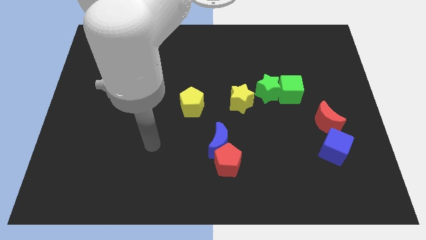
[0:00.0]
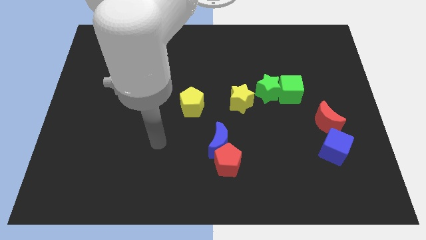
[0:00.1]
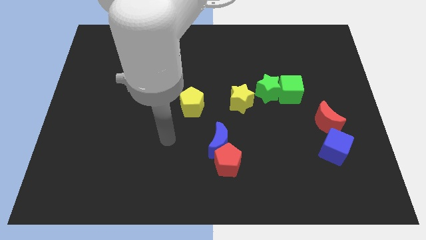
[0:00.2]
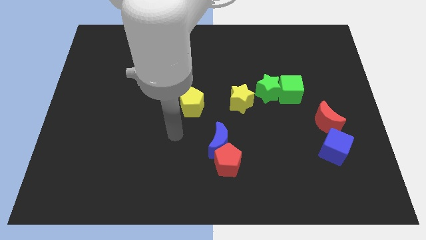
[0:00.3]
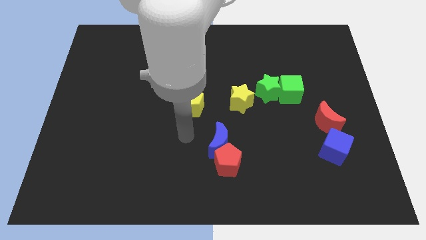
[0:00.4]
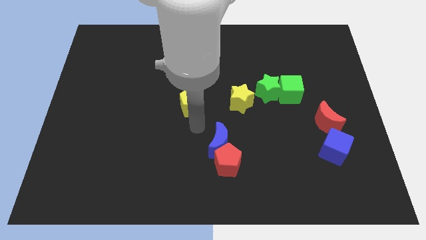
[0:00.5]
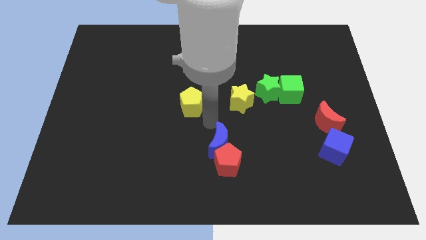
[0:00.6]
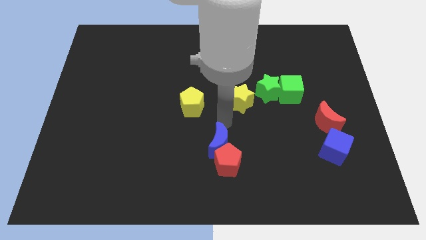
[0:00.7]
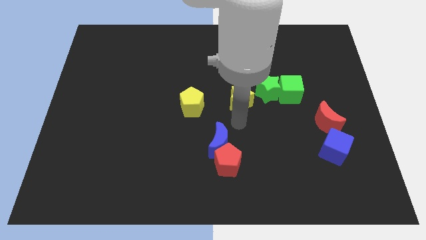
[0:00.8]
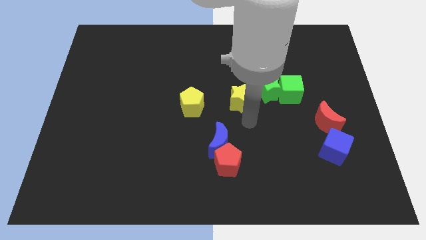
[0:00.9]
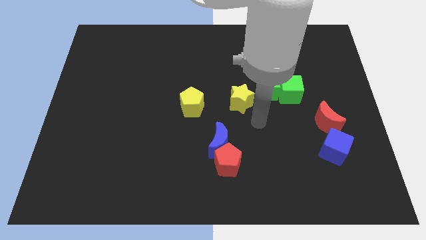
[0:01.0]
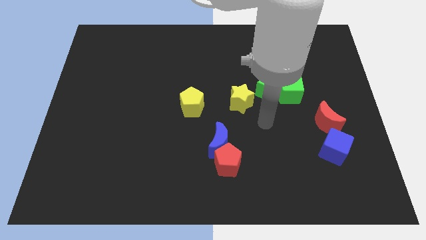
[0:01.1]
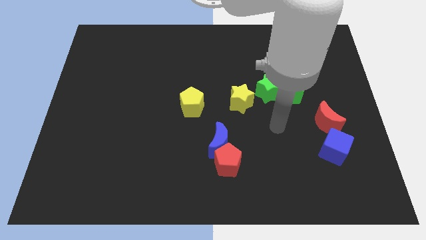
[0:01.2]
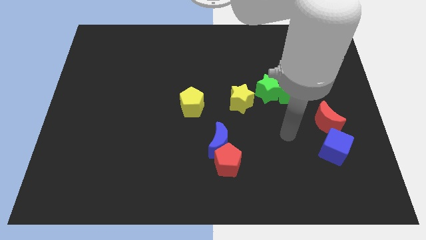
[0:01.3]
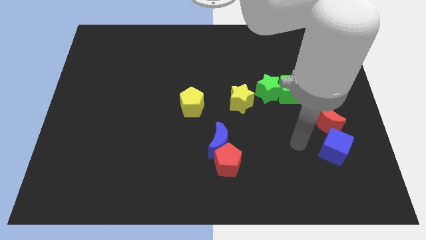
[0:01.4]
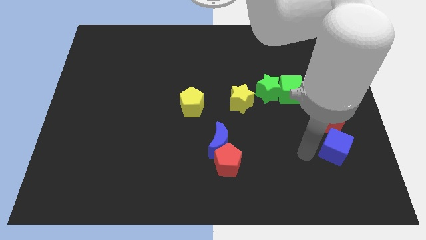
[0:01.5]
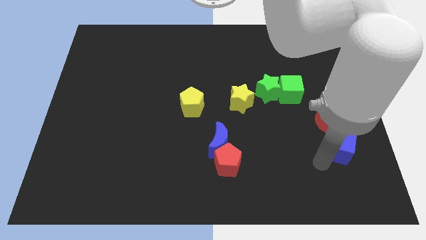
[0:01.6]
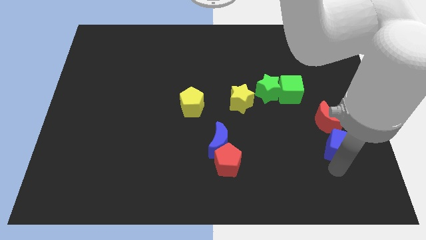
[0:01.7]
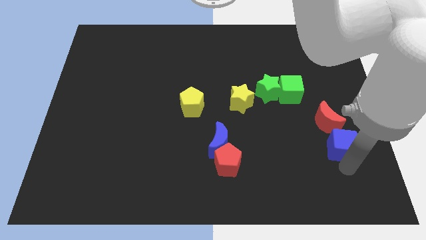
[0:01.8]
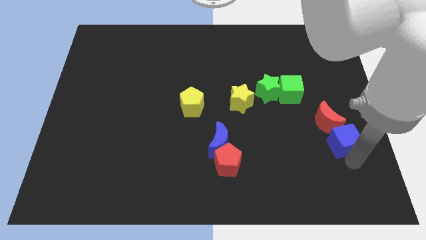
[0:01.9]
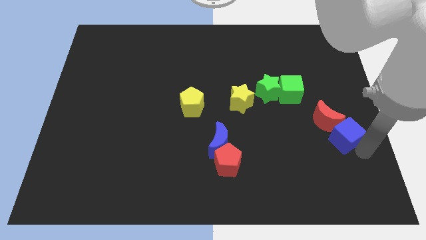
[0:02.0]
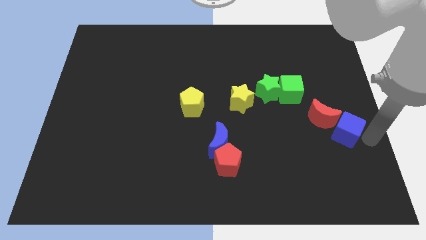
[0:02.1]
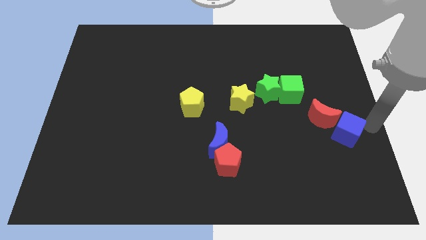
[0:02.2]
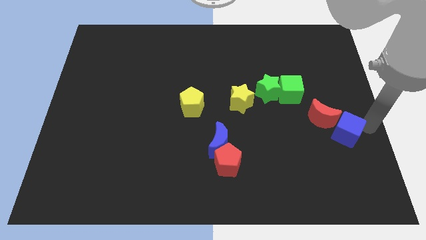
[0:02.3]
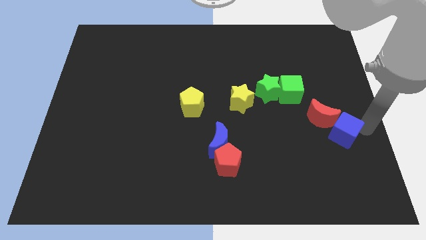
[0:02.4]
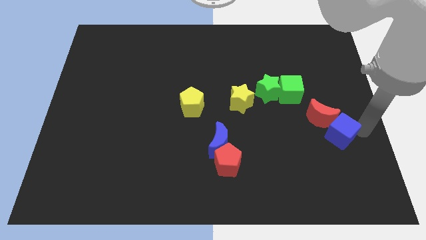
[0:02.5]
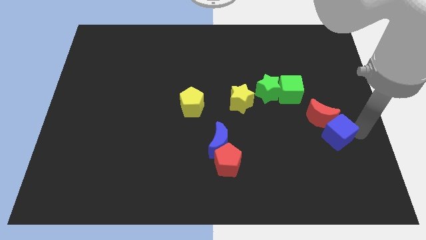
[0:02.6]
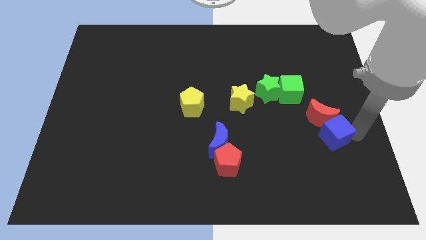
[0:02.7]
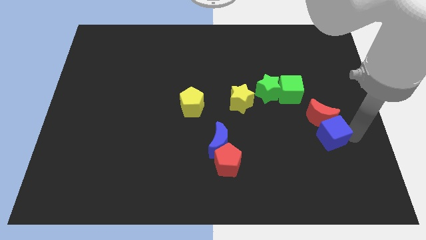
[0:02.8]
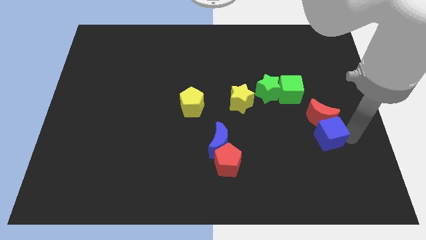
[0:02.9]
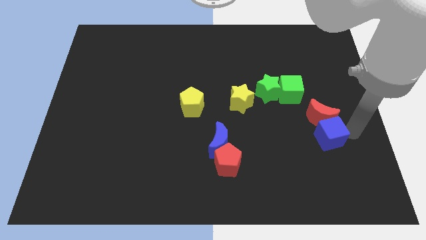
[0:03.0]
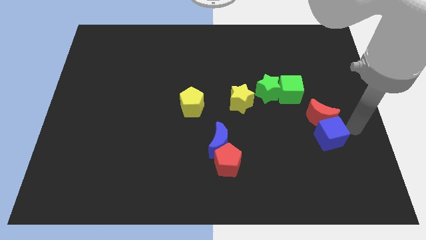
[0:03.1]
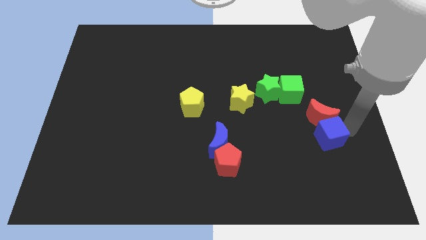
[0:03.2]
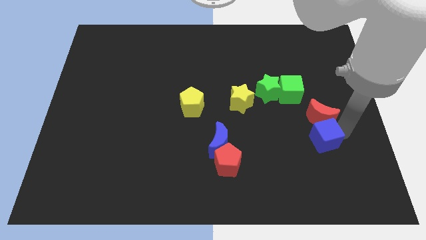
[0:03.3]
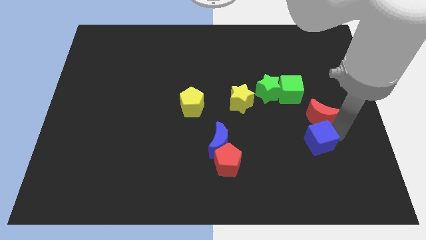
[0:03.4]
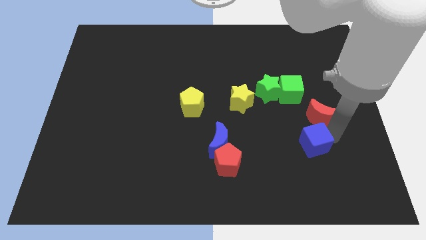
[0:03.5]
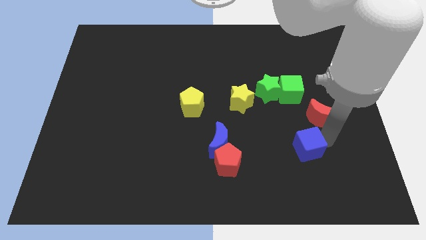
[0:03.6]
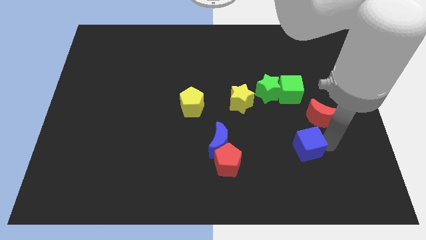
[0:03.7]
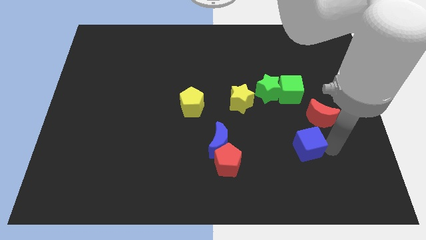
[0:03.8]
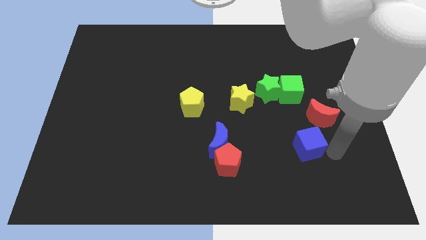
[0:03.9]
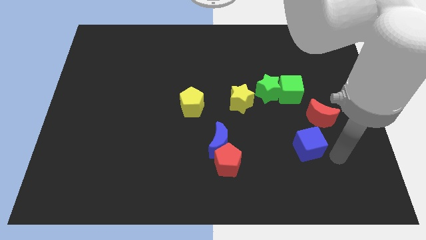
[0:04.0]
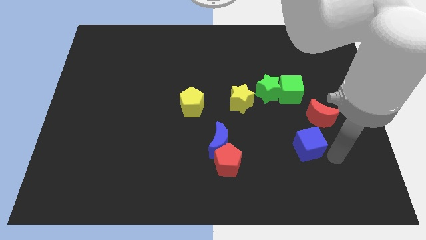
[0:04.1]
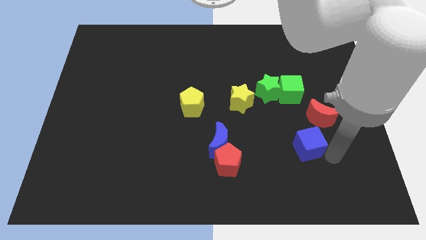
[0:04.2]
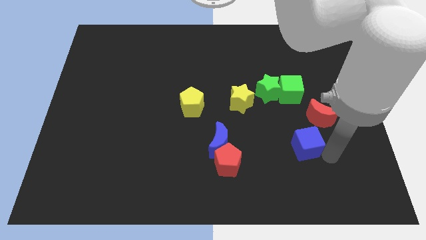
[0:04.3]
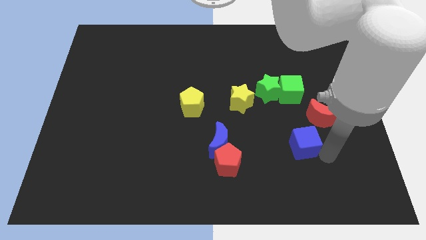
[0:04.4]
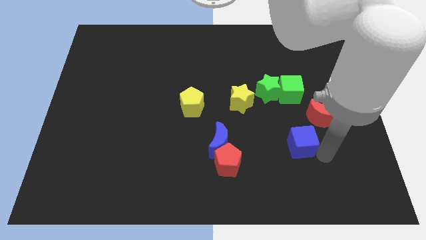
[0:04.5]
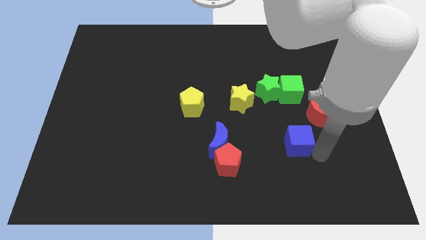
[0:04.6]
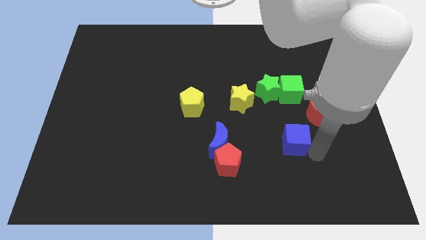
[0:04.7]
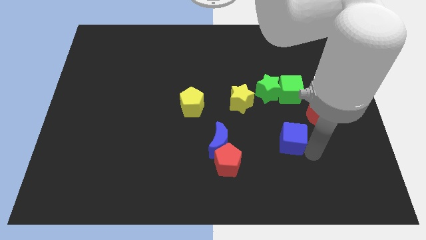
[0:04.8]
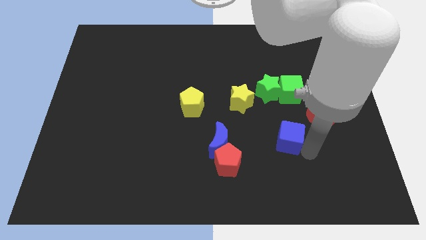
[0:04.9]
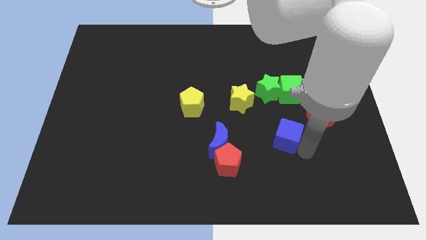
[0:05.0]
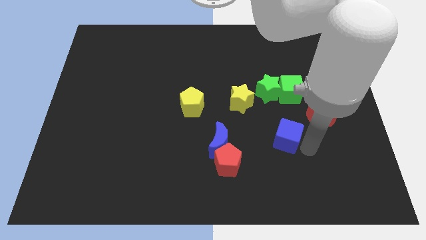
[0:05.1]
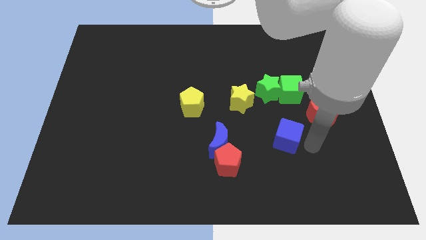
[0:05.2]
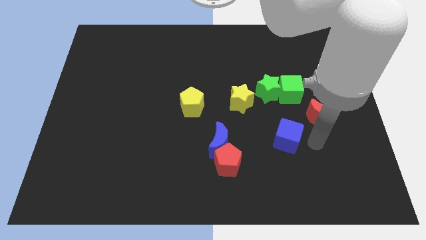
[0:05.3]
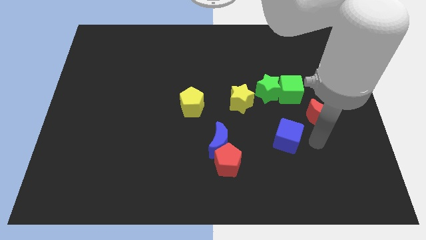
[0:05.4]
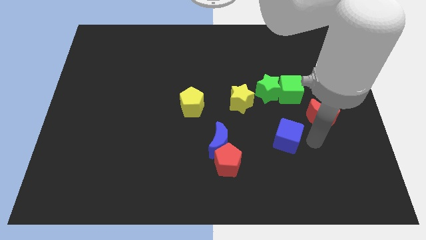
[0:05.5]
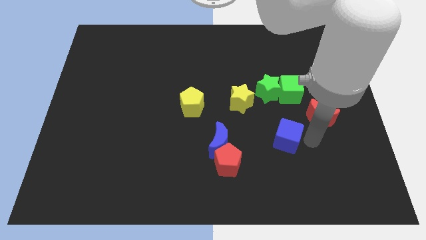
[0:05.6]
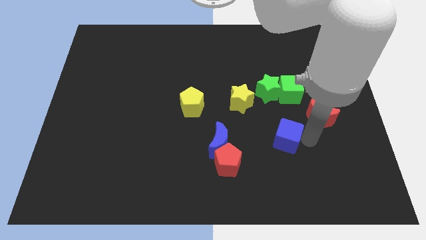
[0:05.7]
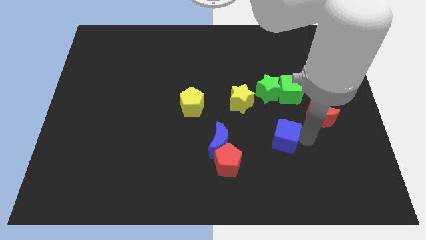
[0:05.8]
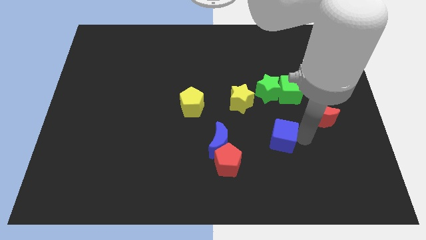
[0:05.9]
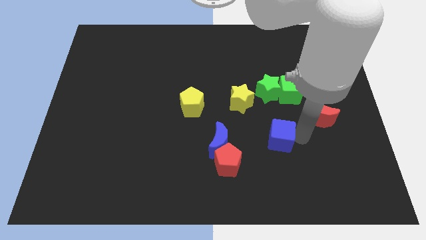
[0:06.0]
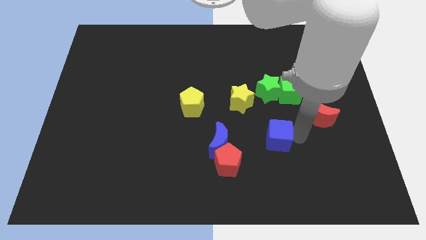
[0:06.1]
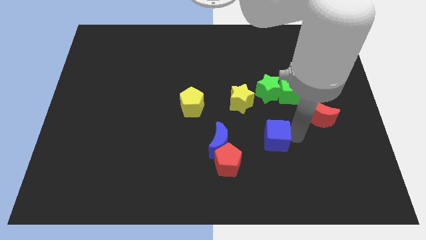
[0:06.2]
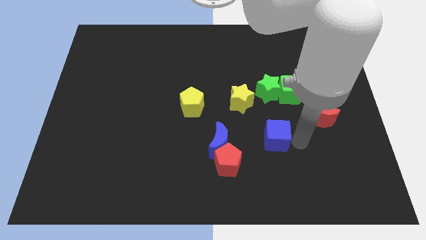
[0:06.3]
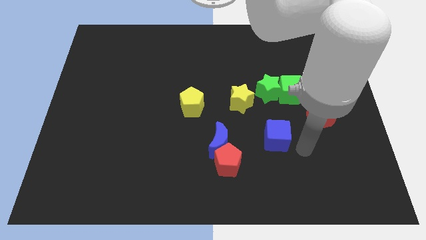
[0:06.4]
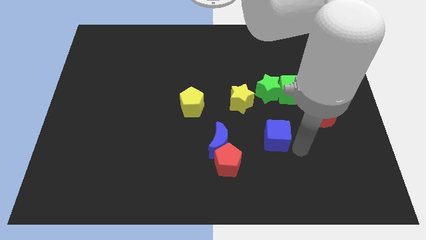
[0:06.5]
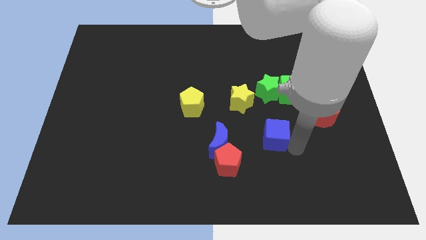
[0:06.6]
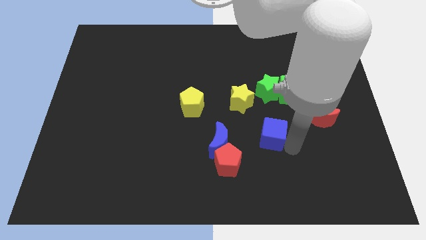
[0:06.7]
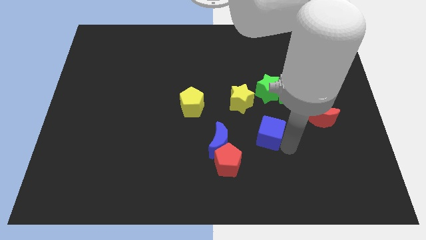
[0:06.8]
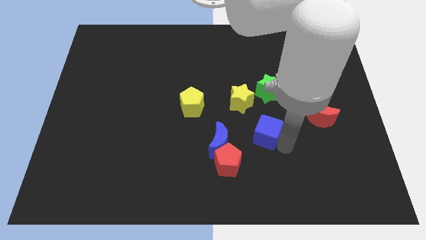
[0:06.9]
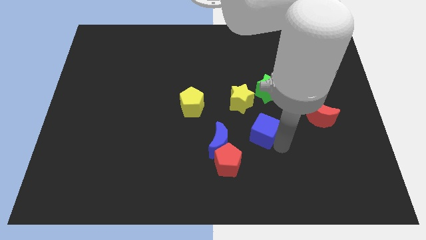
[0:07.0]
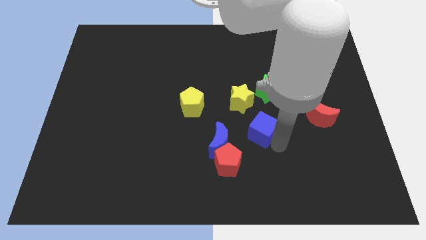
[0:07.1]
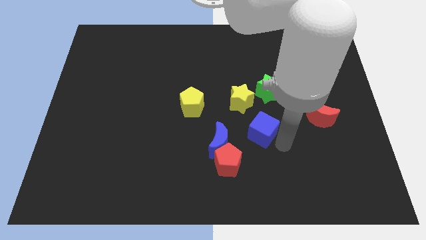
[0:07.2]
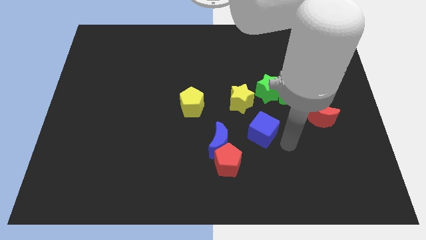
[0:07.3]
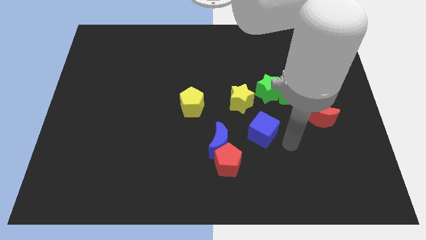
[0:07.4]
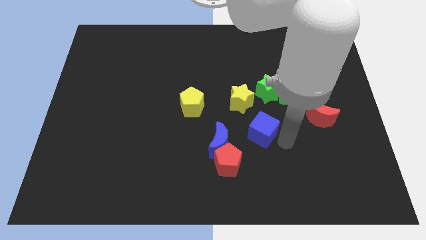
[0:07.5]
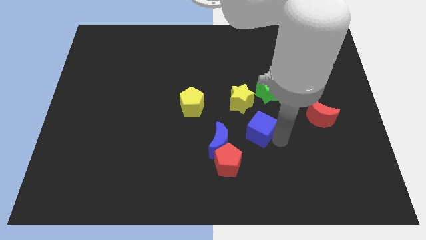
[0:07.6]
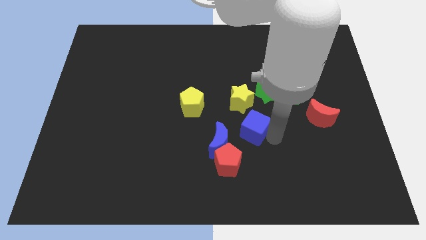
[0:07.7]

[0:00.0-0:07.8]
slide the blue cube to the middle
